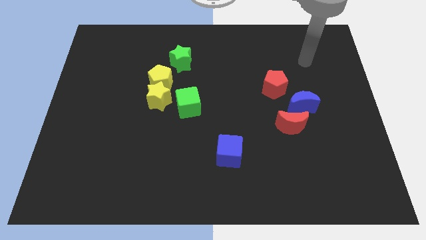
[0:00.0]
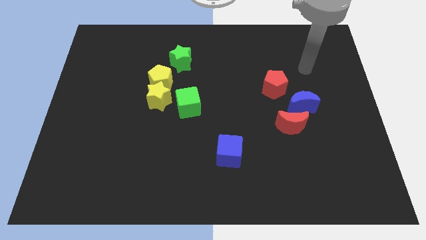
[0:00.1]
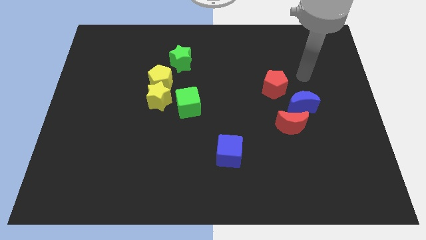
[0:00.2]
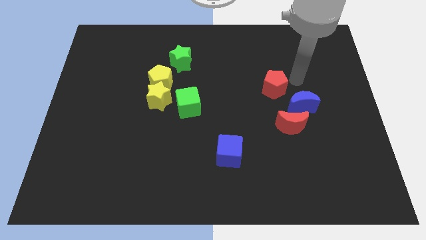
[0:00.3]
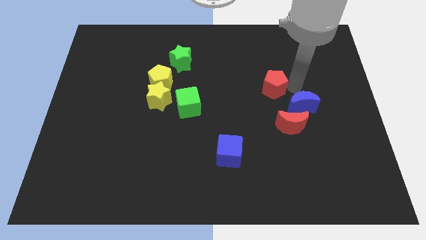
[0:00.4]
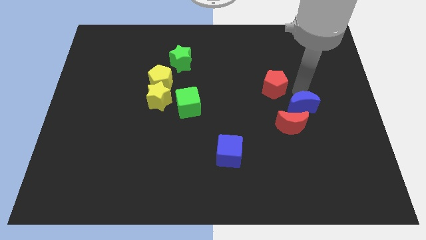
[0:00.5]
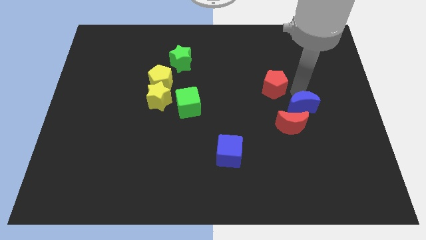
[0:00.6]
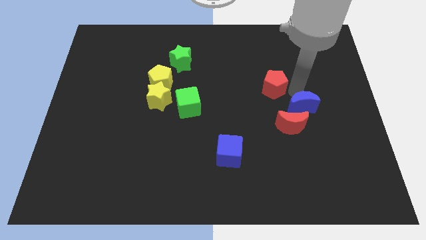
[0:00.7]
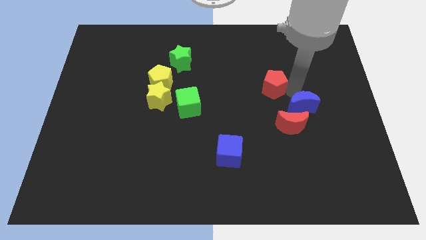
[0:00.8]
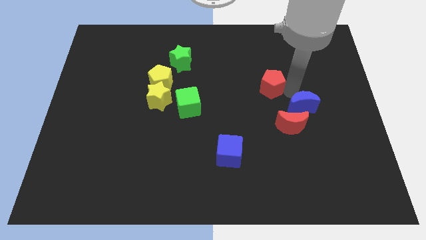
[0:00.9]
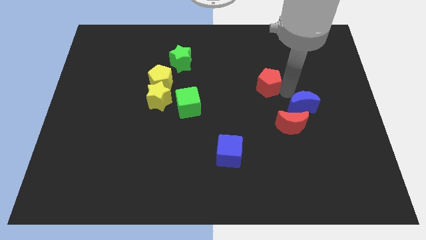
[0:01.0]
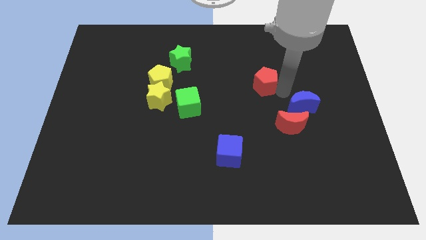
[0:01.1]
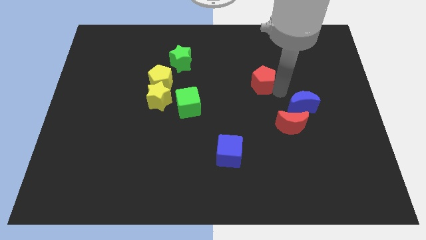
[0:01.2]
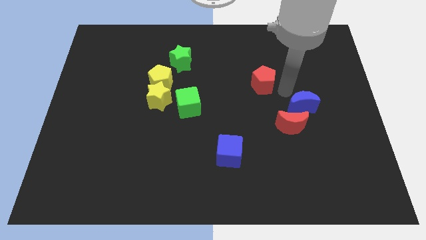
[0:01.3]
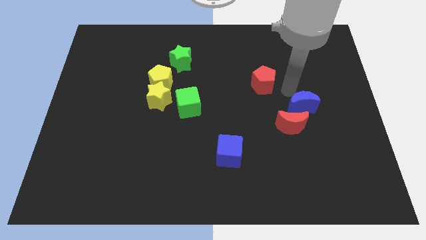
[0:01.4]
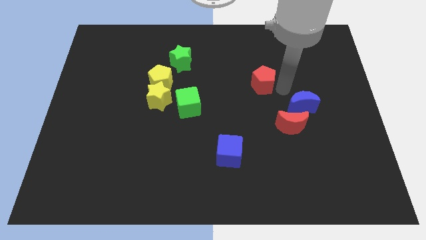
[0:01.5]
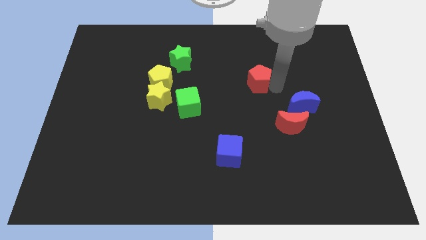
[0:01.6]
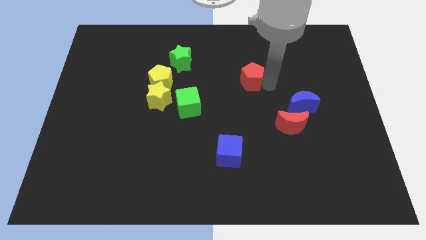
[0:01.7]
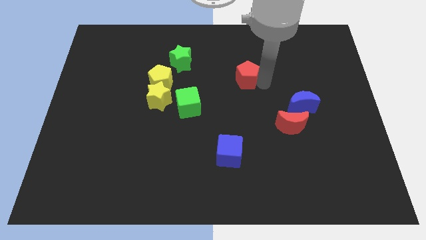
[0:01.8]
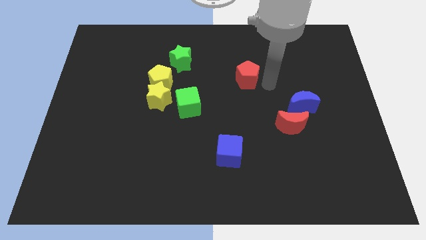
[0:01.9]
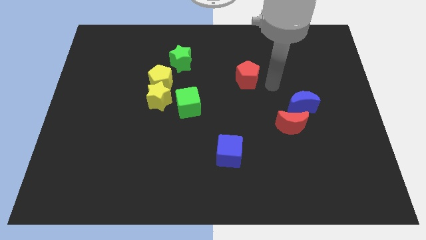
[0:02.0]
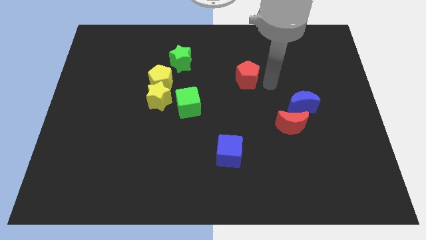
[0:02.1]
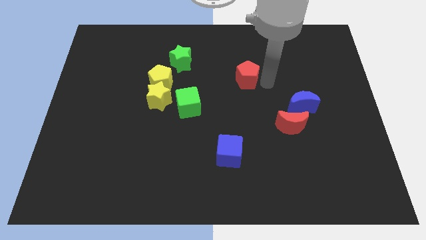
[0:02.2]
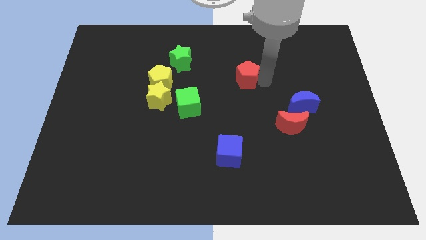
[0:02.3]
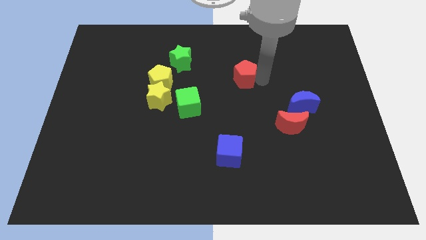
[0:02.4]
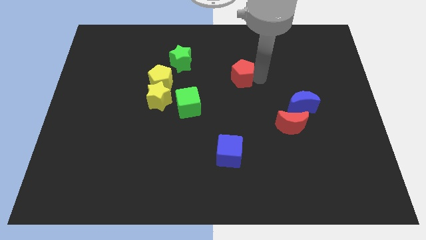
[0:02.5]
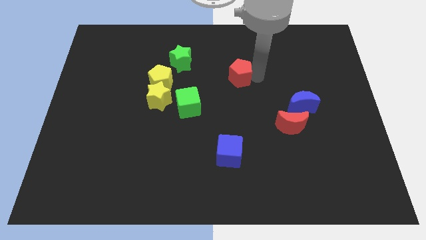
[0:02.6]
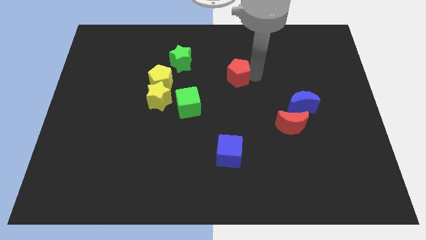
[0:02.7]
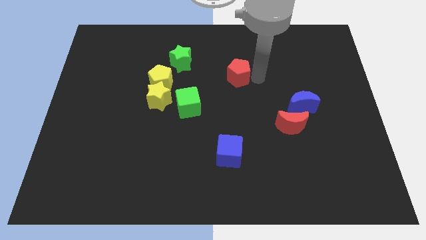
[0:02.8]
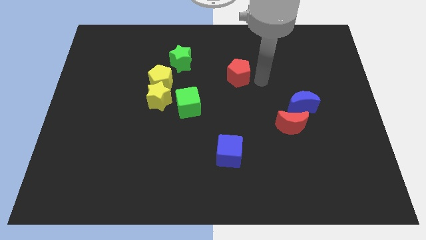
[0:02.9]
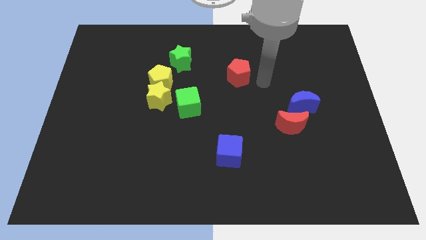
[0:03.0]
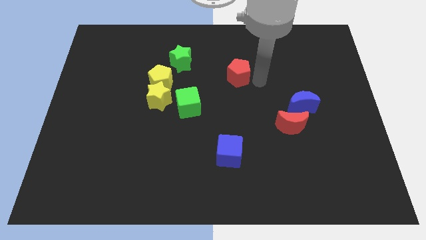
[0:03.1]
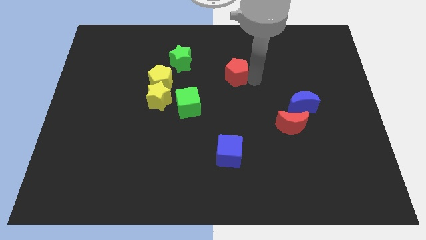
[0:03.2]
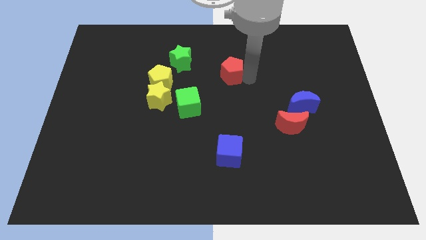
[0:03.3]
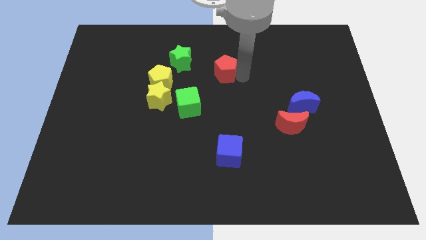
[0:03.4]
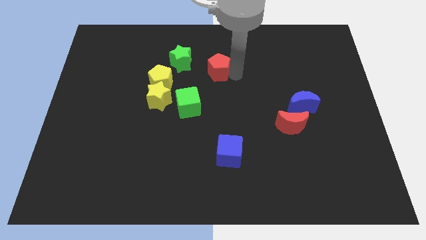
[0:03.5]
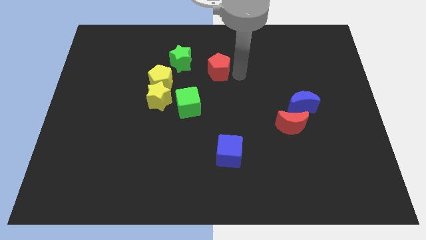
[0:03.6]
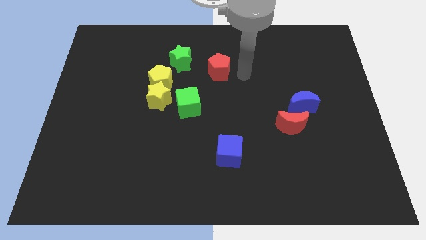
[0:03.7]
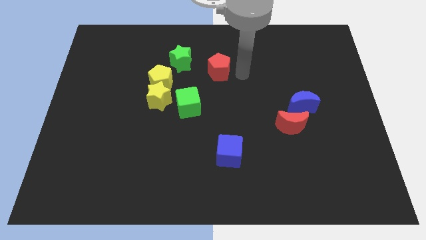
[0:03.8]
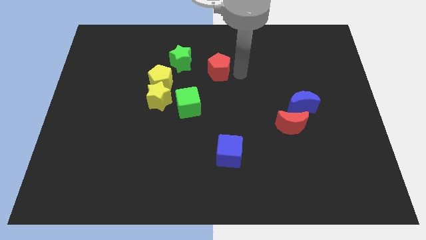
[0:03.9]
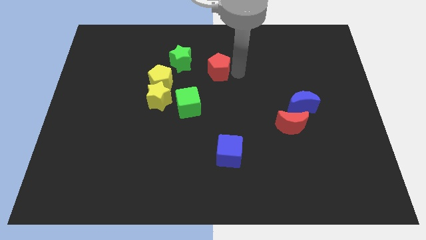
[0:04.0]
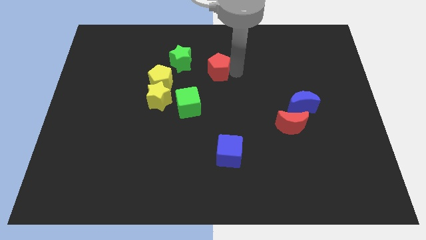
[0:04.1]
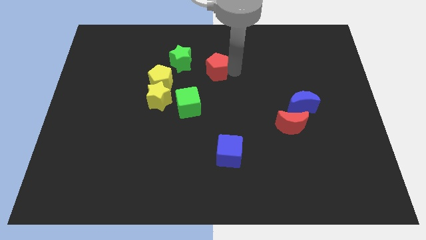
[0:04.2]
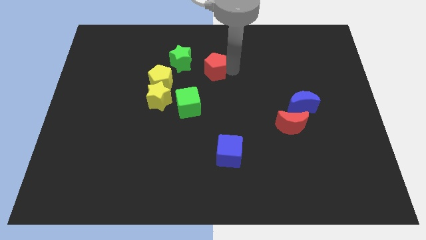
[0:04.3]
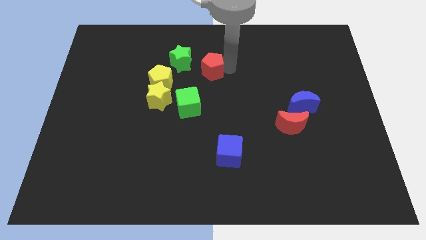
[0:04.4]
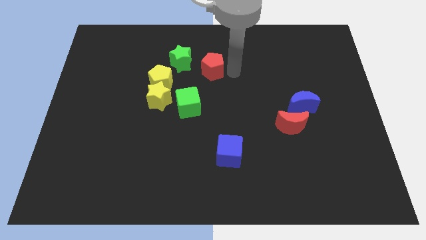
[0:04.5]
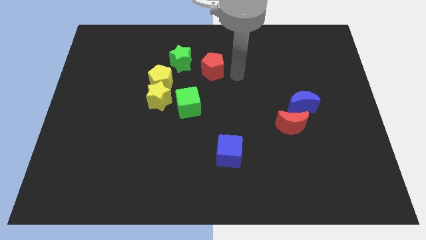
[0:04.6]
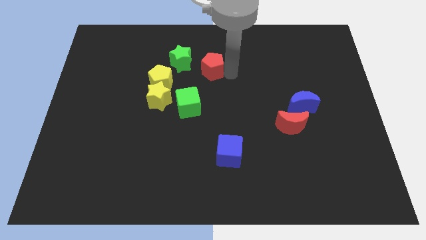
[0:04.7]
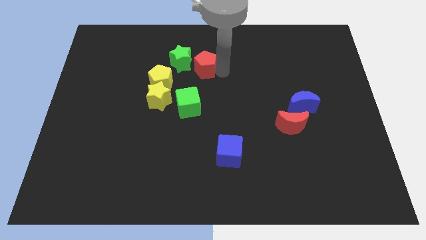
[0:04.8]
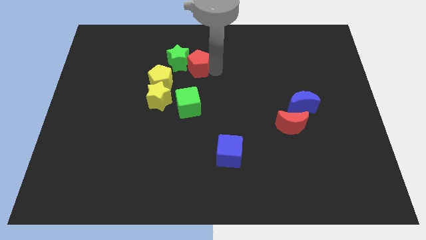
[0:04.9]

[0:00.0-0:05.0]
put the red pentagon close to the green star

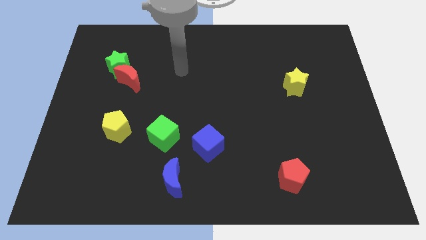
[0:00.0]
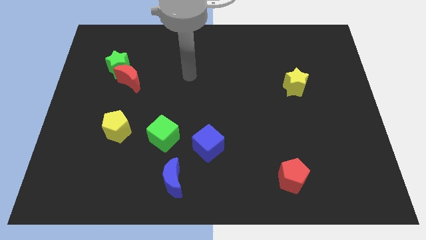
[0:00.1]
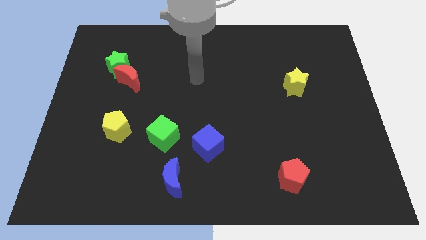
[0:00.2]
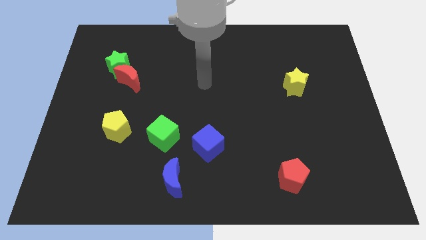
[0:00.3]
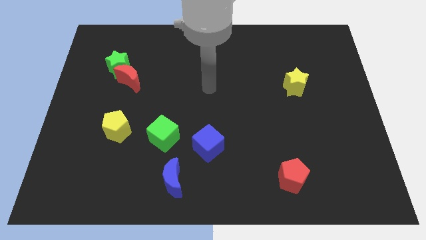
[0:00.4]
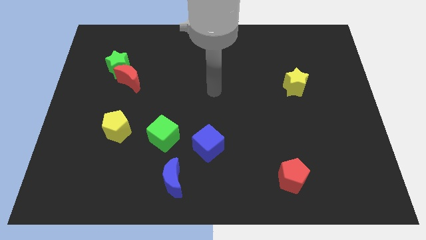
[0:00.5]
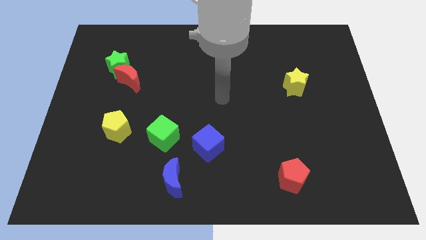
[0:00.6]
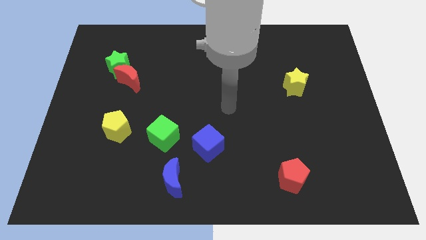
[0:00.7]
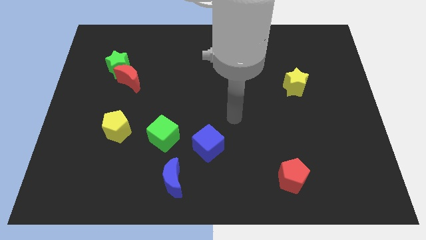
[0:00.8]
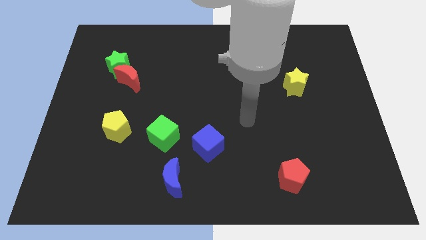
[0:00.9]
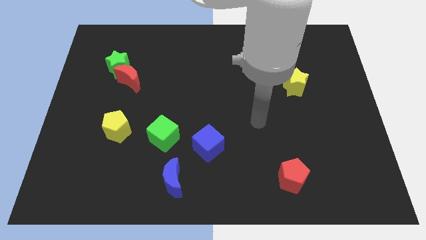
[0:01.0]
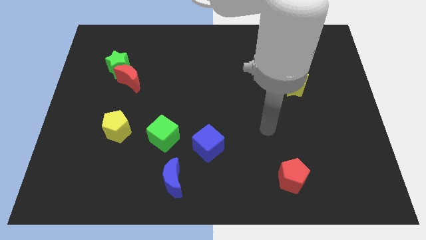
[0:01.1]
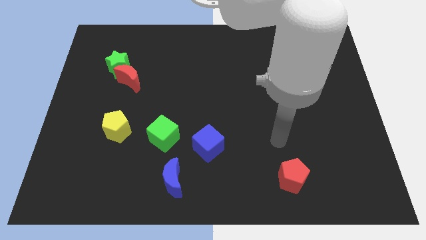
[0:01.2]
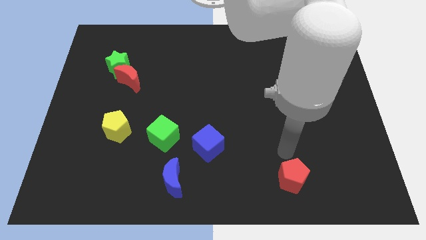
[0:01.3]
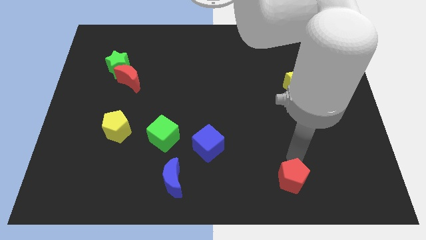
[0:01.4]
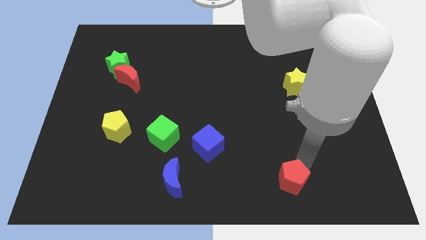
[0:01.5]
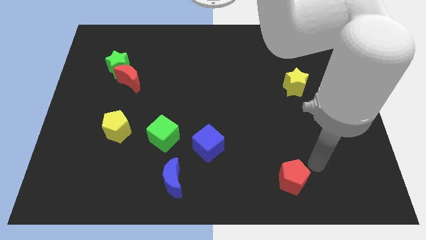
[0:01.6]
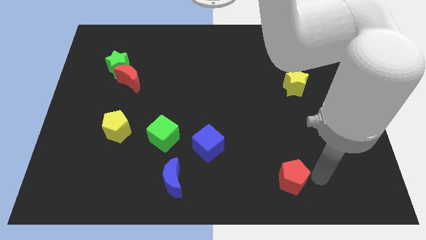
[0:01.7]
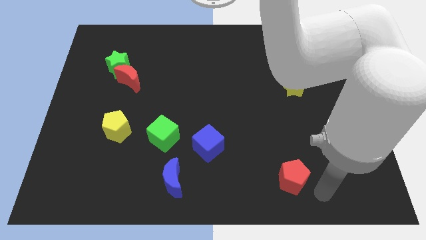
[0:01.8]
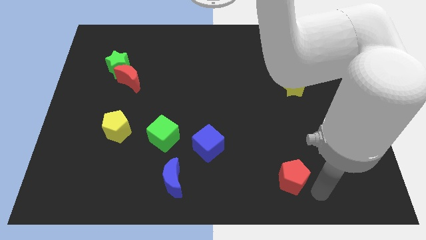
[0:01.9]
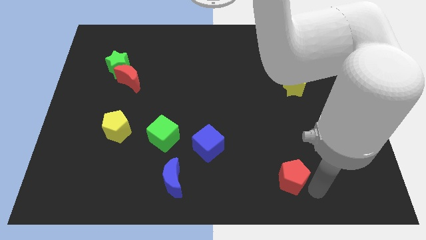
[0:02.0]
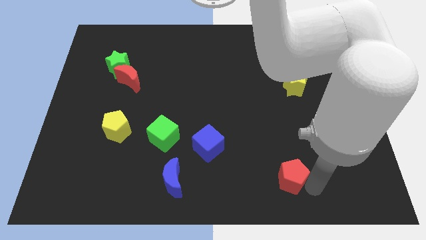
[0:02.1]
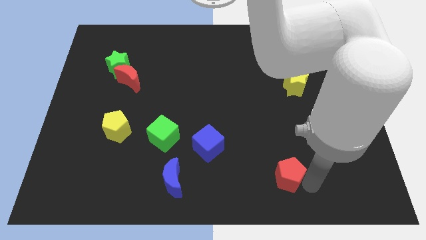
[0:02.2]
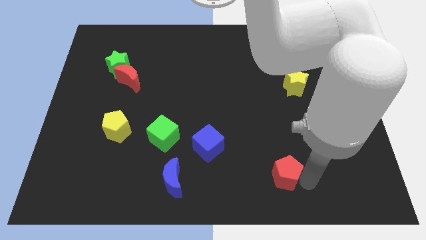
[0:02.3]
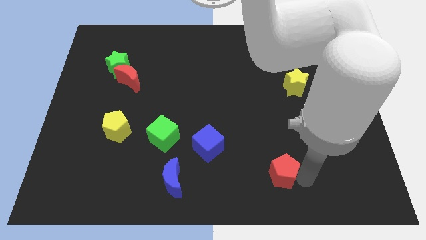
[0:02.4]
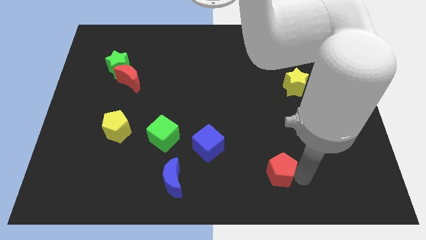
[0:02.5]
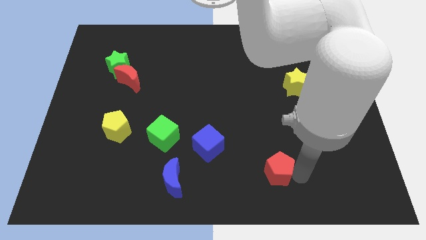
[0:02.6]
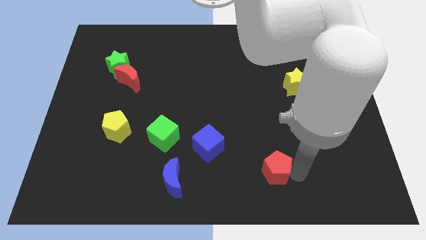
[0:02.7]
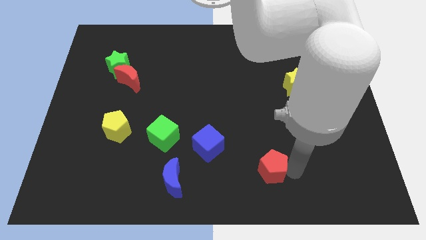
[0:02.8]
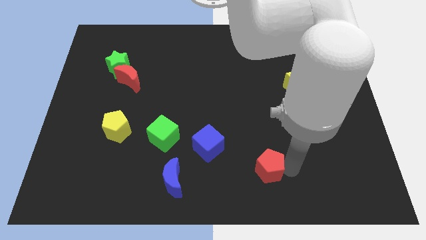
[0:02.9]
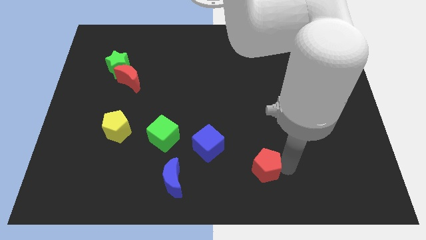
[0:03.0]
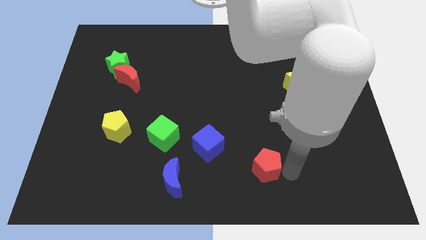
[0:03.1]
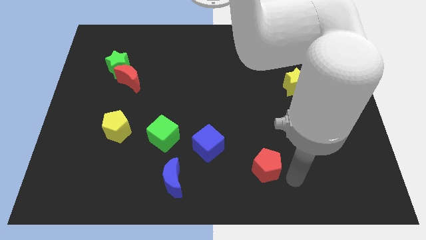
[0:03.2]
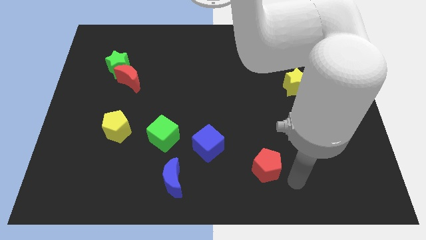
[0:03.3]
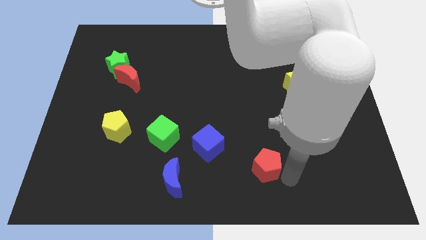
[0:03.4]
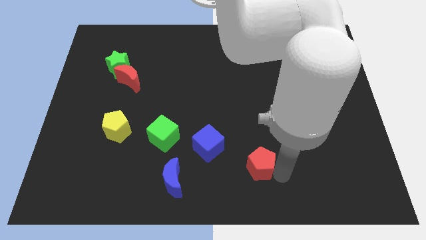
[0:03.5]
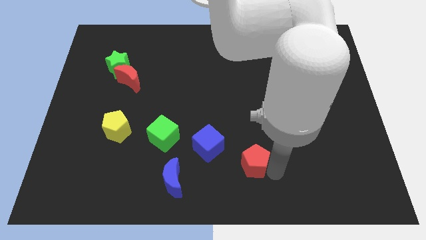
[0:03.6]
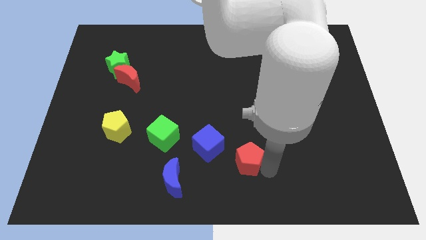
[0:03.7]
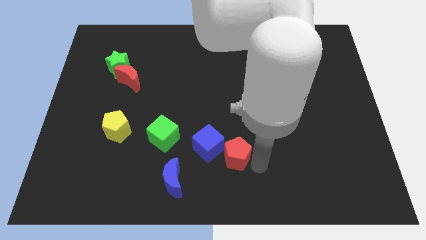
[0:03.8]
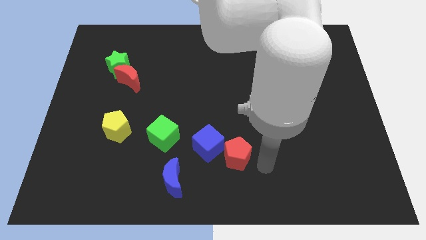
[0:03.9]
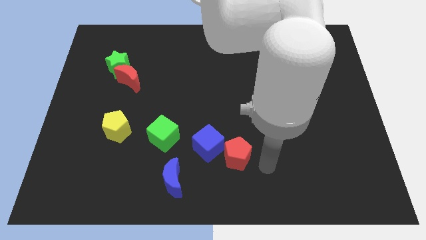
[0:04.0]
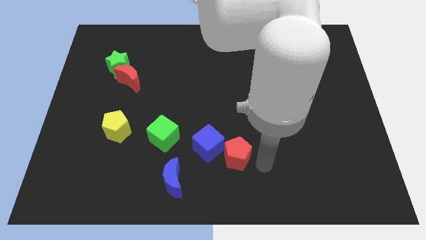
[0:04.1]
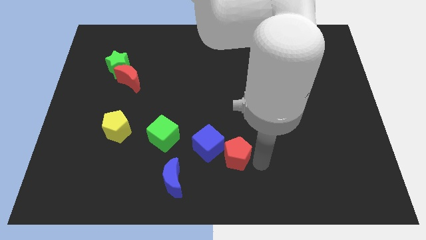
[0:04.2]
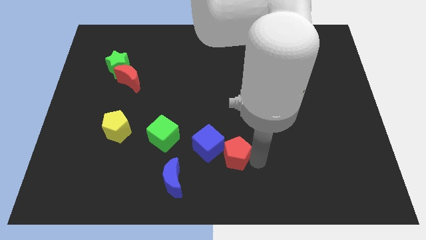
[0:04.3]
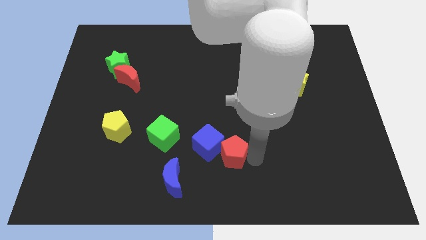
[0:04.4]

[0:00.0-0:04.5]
move the red pentagon to the blue cube
